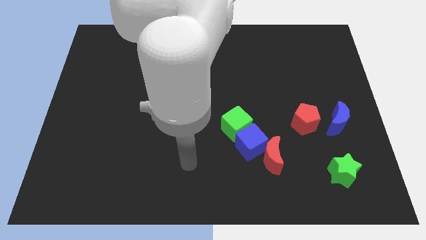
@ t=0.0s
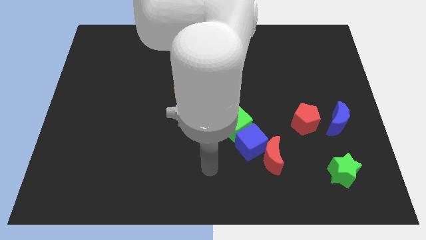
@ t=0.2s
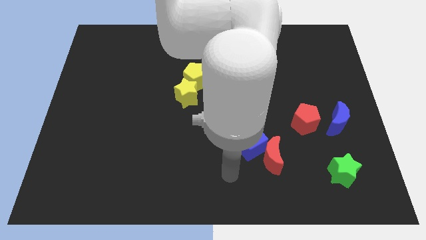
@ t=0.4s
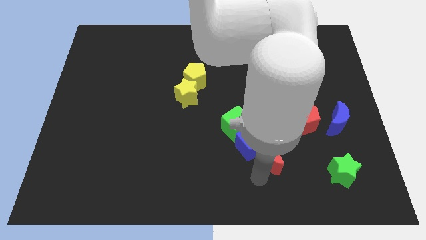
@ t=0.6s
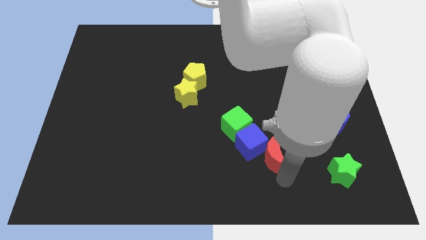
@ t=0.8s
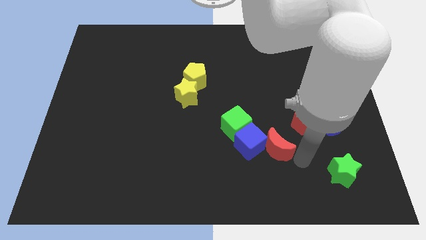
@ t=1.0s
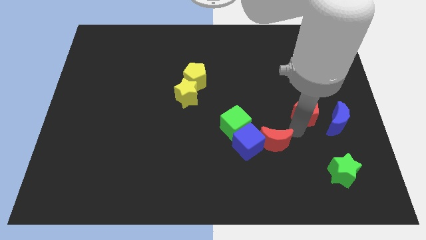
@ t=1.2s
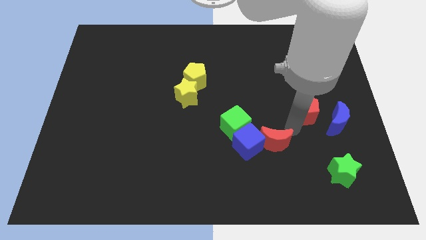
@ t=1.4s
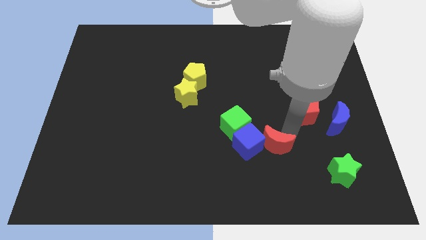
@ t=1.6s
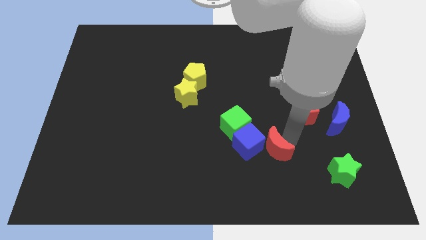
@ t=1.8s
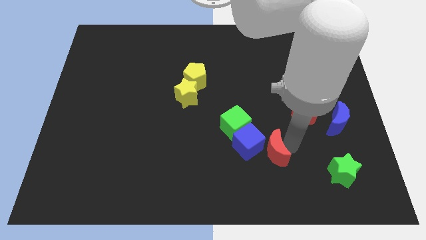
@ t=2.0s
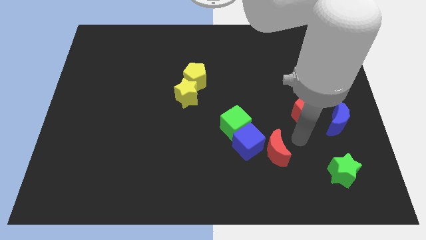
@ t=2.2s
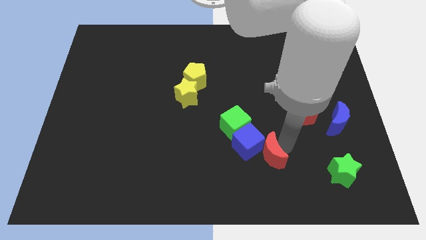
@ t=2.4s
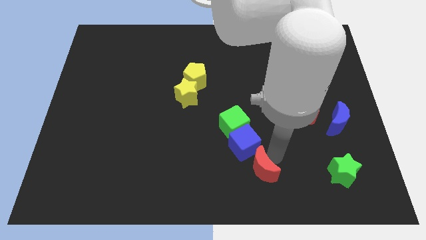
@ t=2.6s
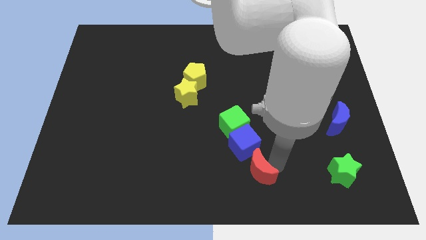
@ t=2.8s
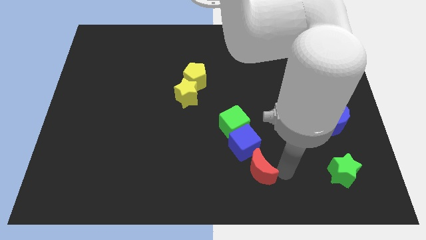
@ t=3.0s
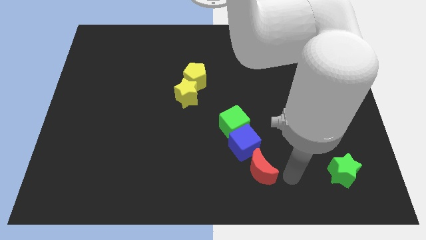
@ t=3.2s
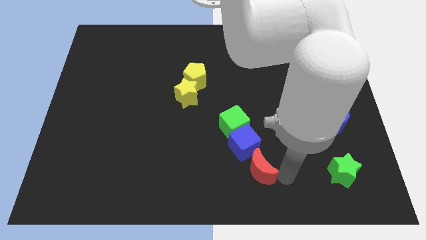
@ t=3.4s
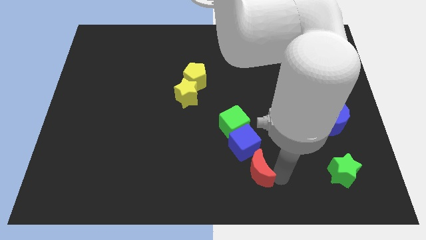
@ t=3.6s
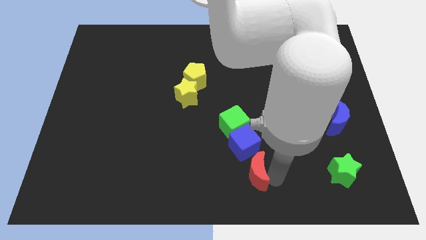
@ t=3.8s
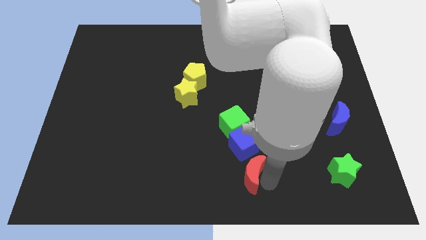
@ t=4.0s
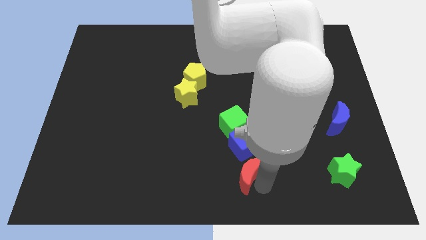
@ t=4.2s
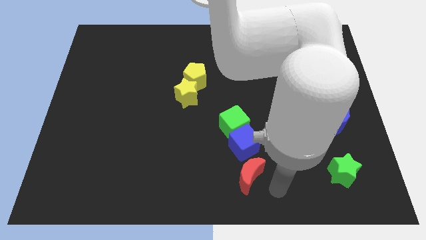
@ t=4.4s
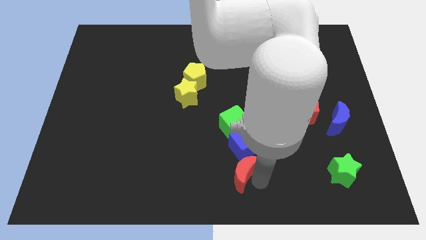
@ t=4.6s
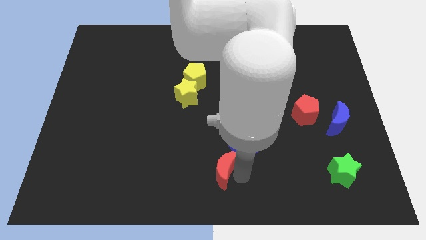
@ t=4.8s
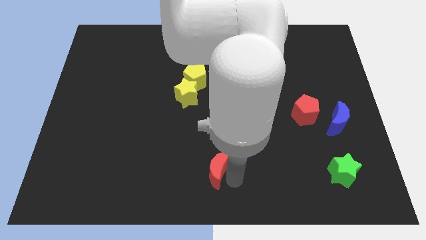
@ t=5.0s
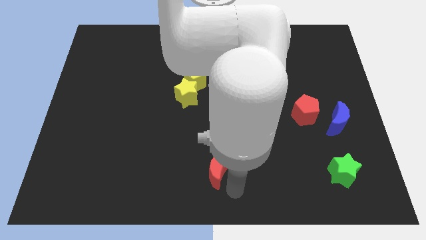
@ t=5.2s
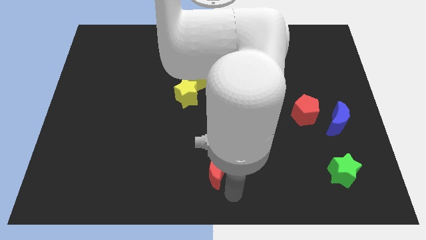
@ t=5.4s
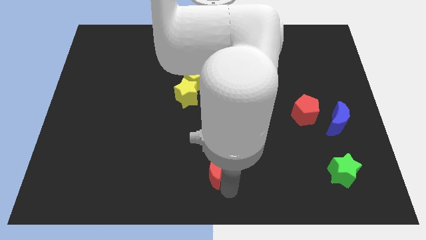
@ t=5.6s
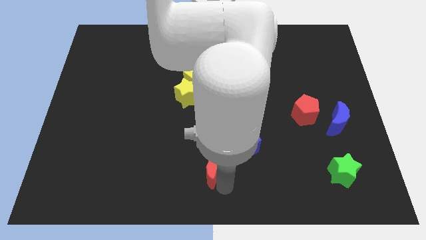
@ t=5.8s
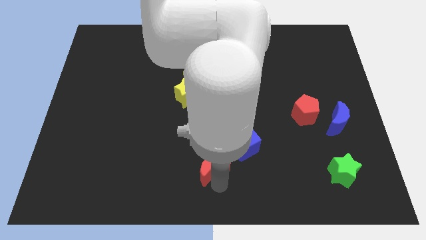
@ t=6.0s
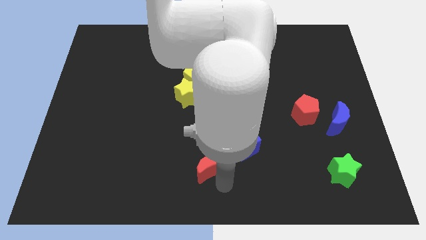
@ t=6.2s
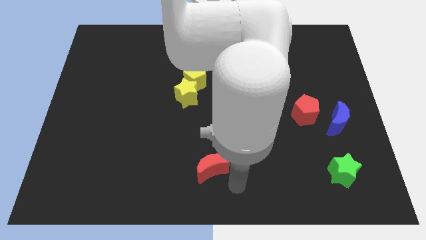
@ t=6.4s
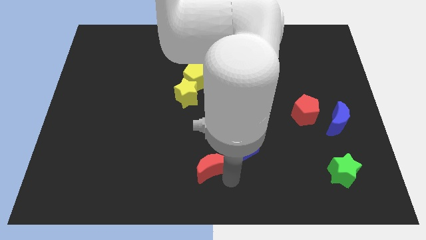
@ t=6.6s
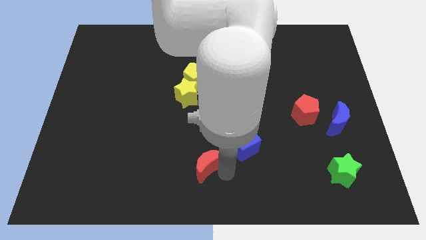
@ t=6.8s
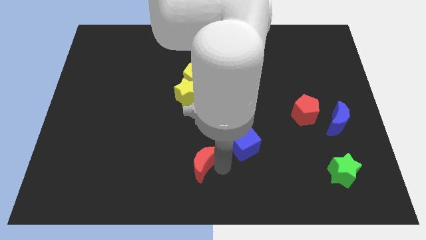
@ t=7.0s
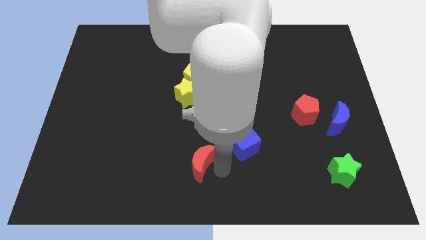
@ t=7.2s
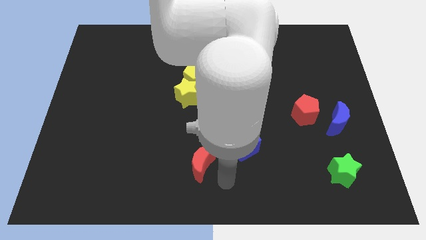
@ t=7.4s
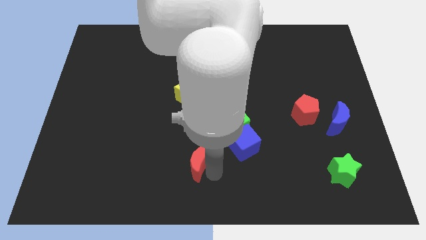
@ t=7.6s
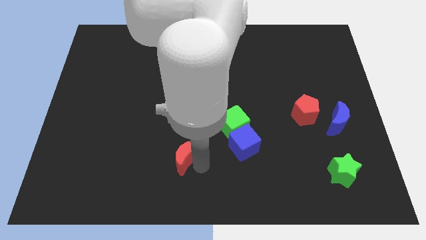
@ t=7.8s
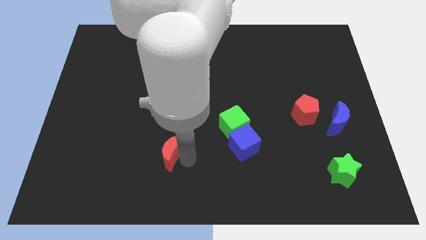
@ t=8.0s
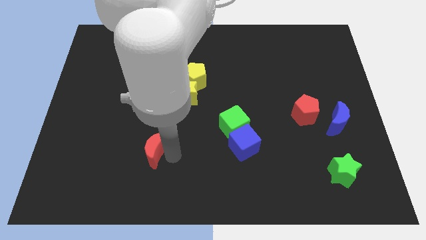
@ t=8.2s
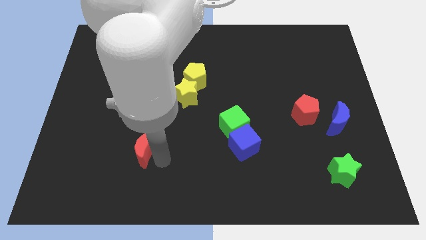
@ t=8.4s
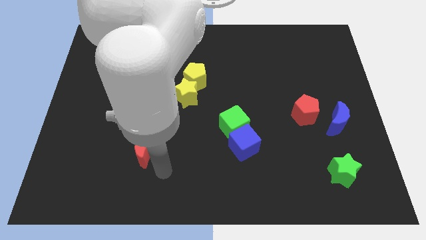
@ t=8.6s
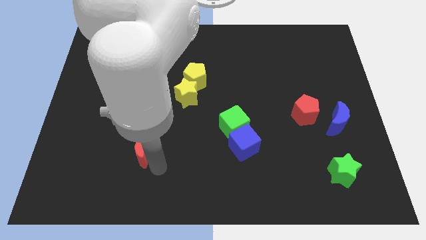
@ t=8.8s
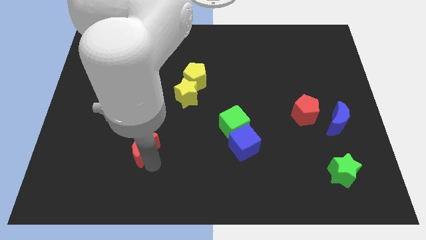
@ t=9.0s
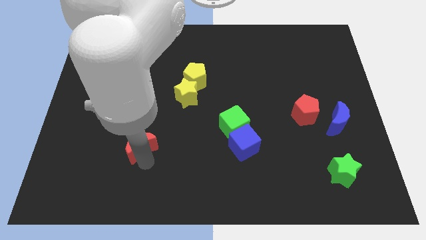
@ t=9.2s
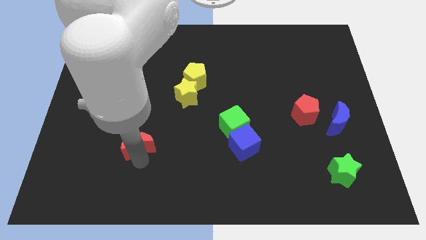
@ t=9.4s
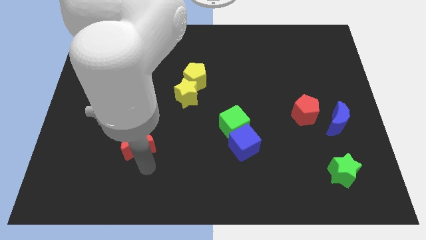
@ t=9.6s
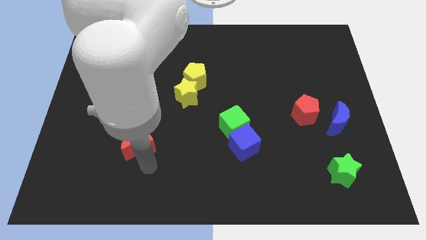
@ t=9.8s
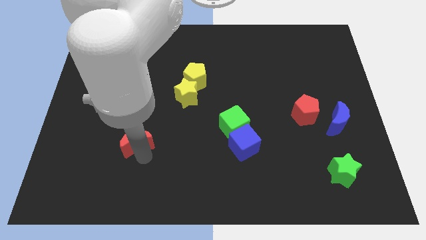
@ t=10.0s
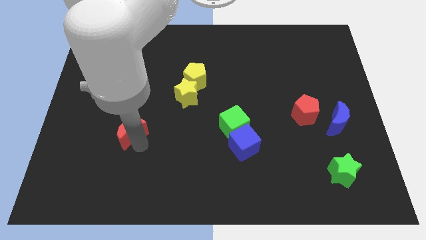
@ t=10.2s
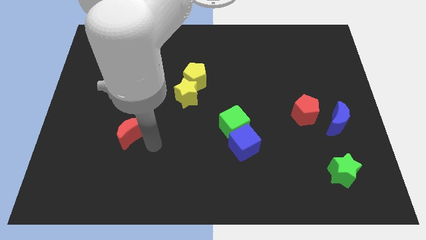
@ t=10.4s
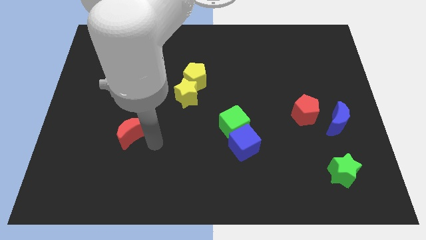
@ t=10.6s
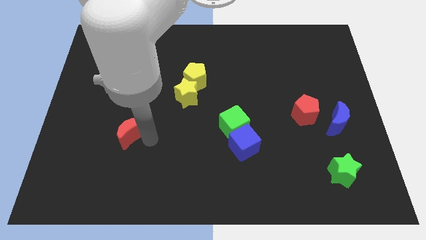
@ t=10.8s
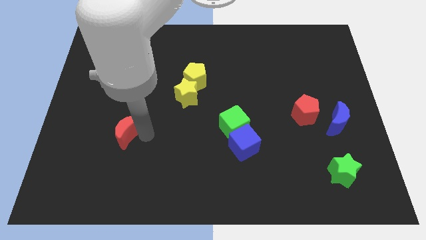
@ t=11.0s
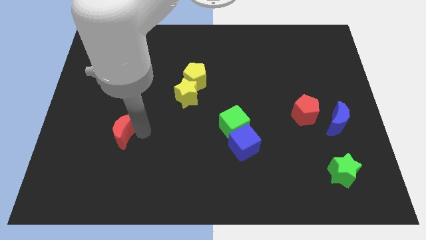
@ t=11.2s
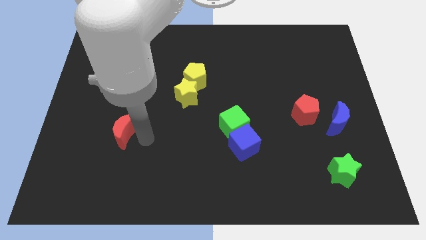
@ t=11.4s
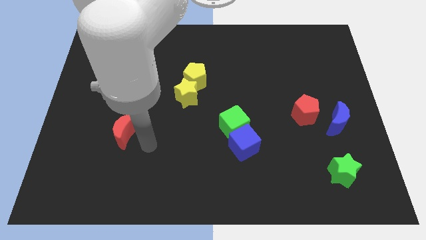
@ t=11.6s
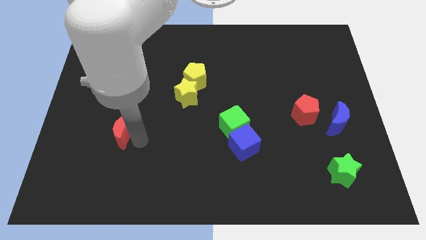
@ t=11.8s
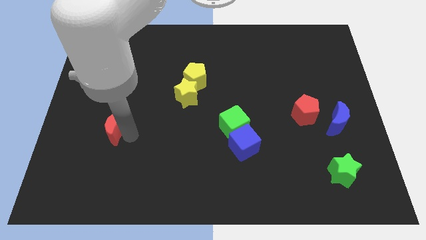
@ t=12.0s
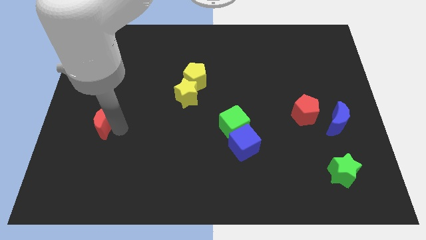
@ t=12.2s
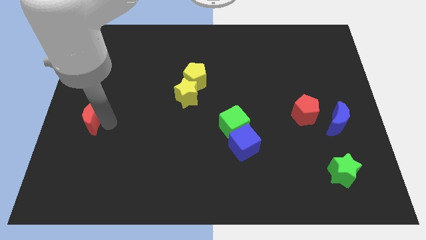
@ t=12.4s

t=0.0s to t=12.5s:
put the red moon to the center left
